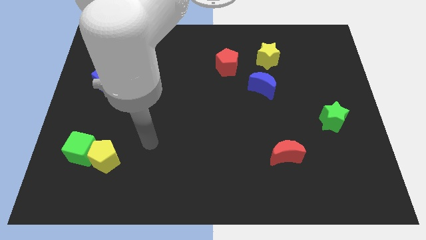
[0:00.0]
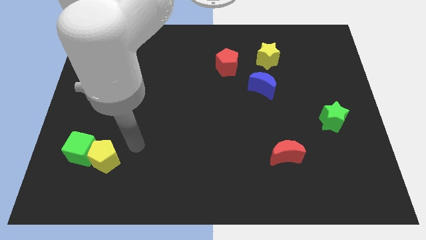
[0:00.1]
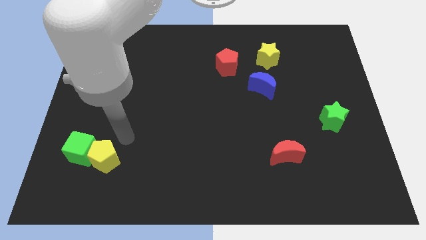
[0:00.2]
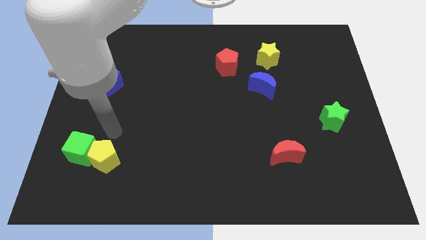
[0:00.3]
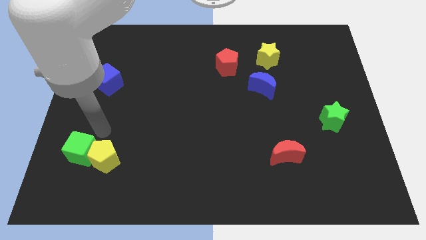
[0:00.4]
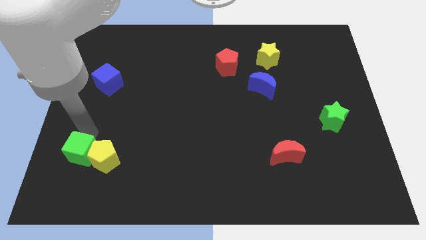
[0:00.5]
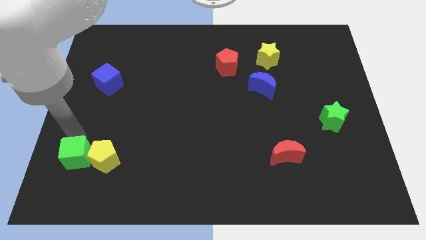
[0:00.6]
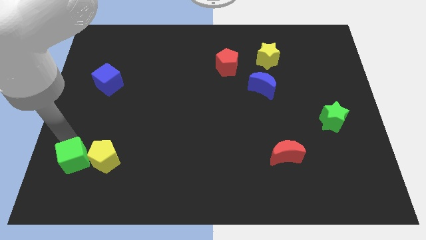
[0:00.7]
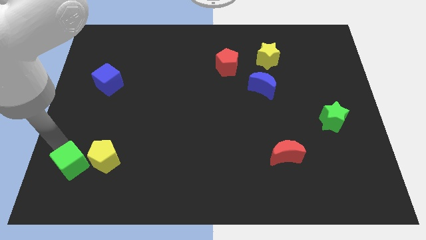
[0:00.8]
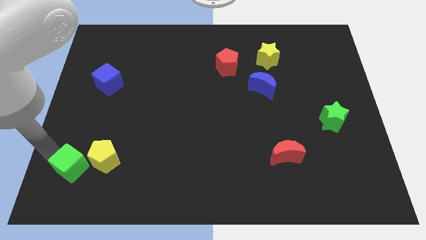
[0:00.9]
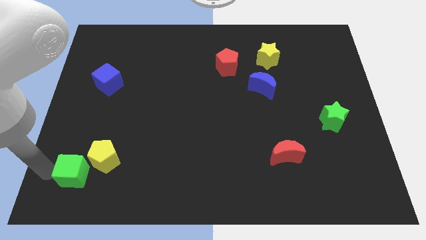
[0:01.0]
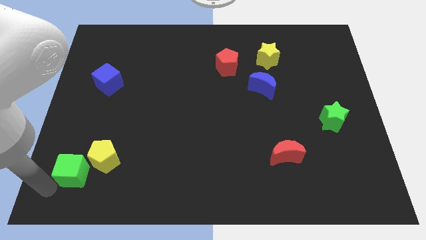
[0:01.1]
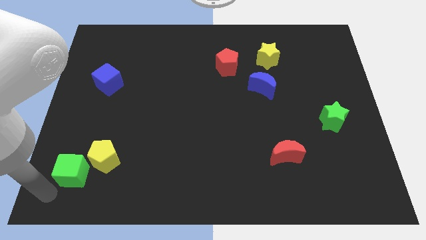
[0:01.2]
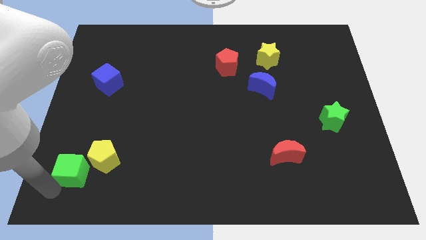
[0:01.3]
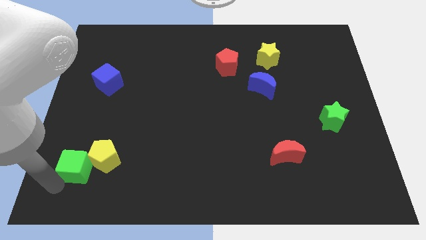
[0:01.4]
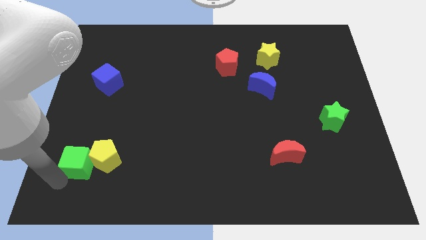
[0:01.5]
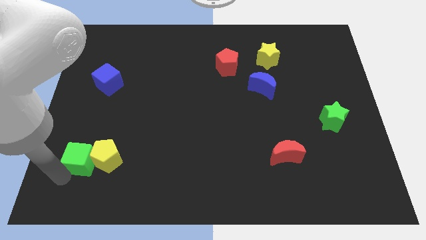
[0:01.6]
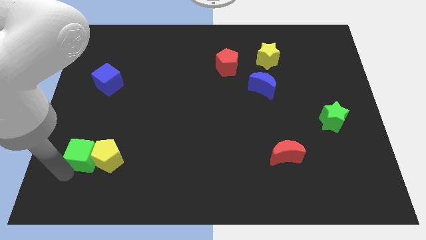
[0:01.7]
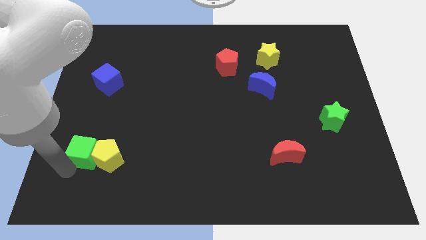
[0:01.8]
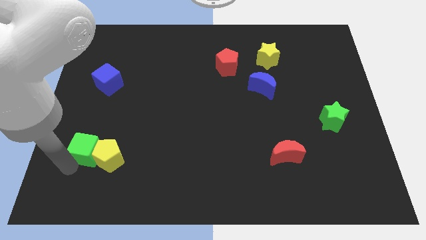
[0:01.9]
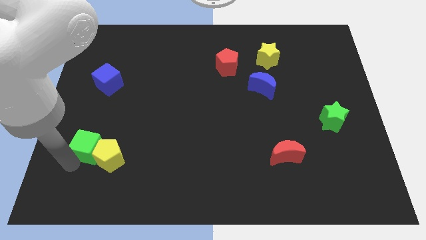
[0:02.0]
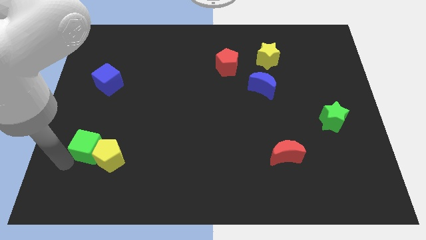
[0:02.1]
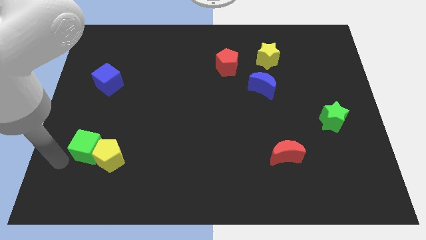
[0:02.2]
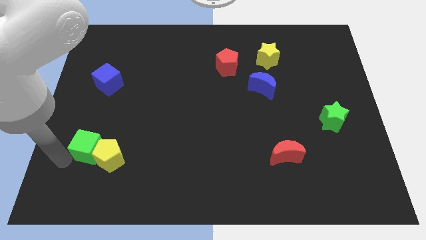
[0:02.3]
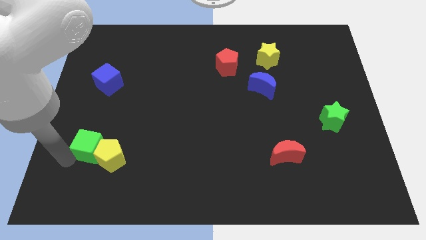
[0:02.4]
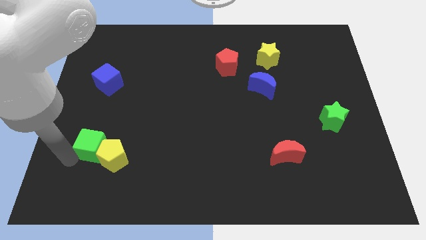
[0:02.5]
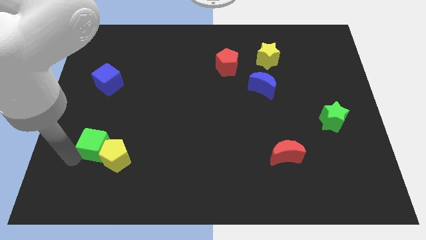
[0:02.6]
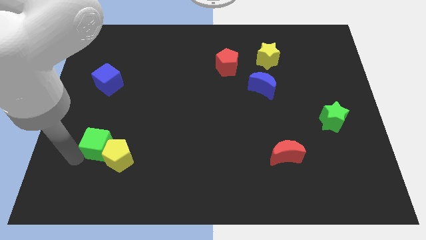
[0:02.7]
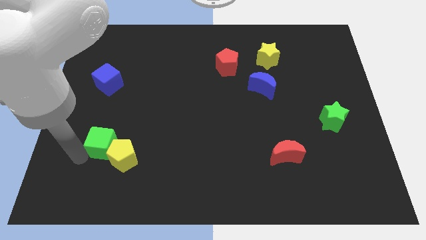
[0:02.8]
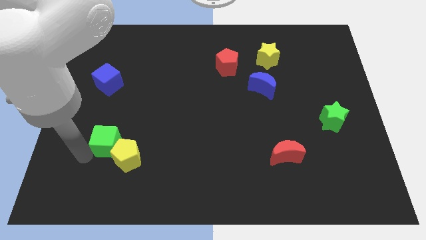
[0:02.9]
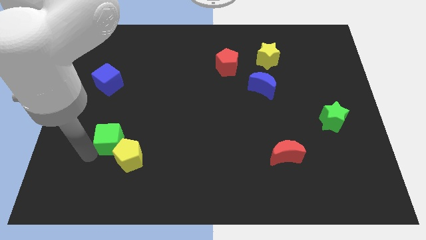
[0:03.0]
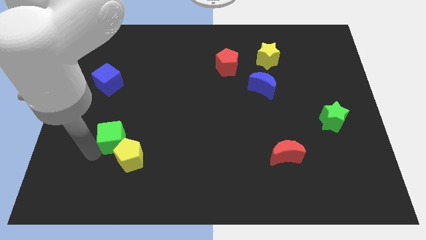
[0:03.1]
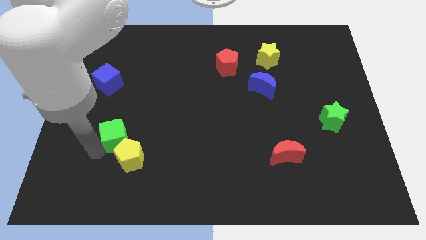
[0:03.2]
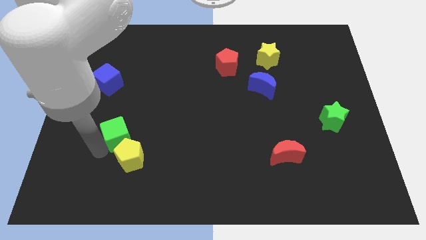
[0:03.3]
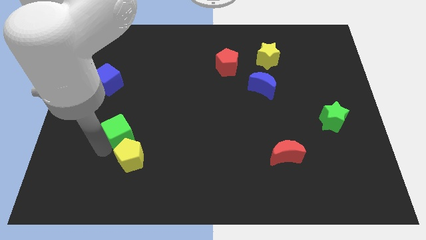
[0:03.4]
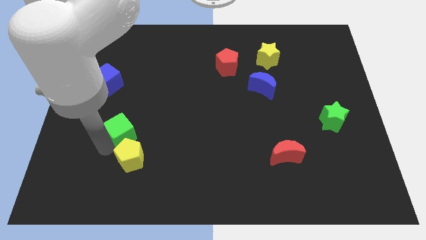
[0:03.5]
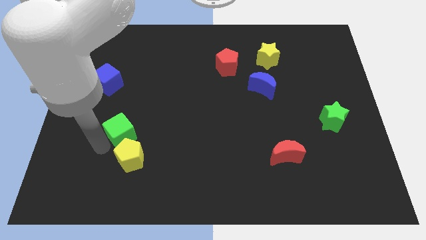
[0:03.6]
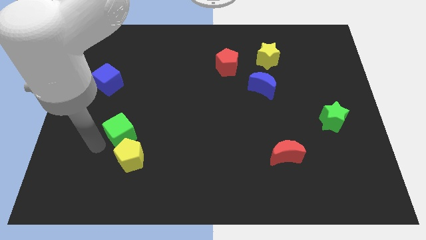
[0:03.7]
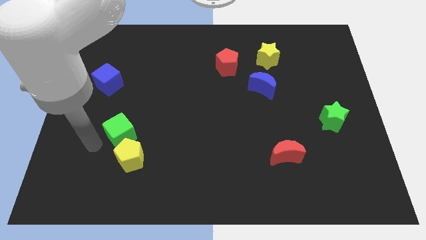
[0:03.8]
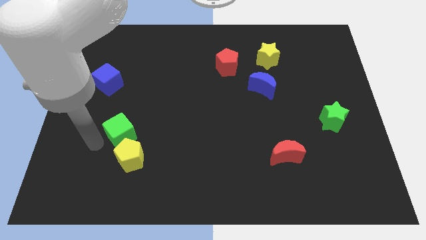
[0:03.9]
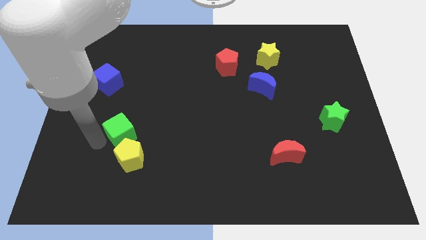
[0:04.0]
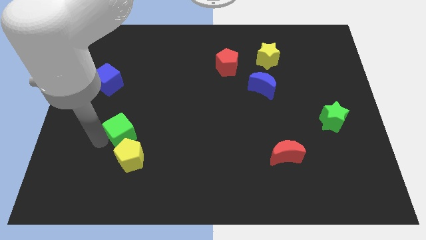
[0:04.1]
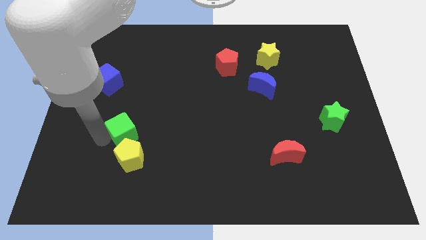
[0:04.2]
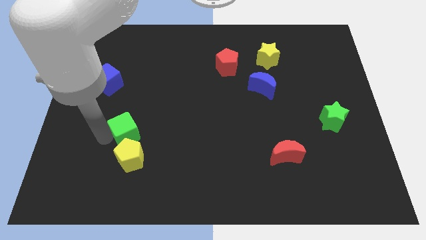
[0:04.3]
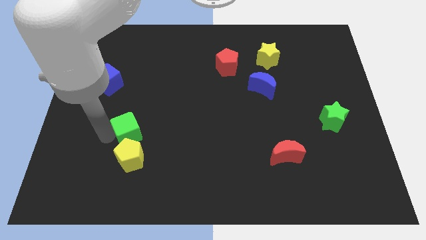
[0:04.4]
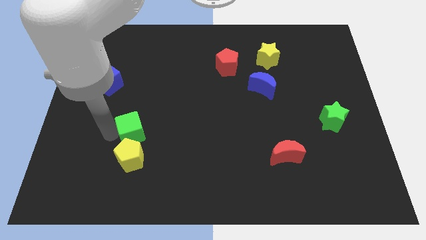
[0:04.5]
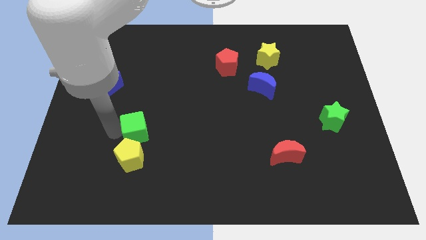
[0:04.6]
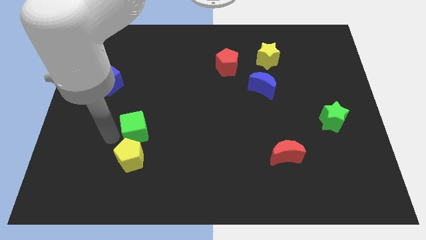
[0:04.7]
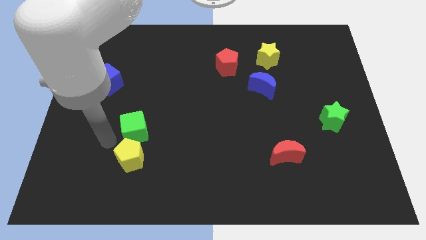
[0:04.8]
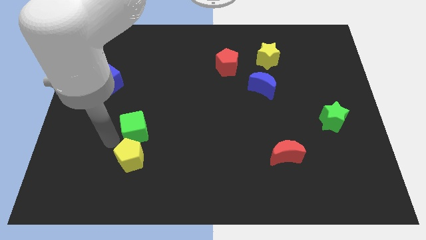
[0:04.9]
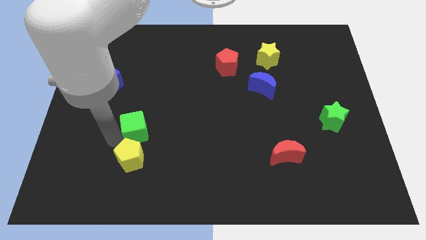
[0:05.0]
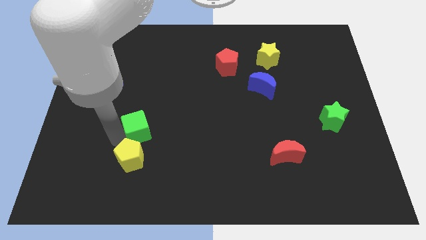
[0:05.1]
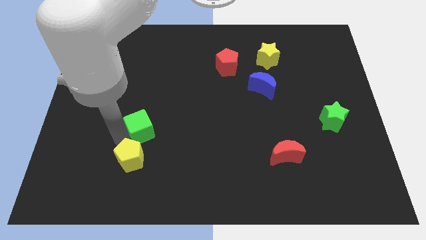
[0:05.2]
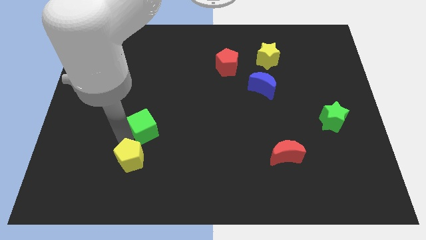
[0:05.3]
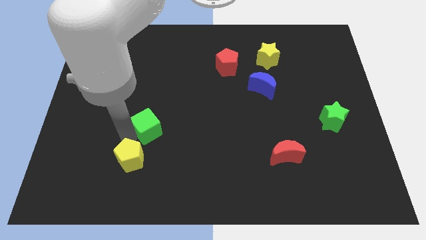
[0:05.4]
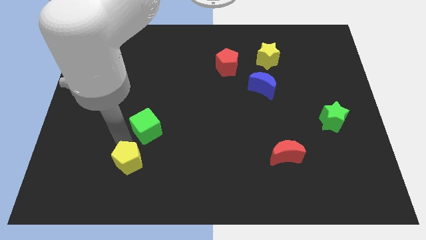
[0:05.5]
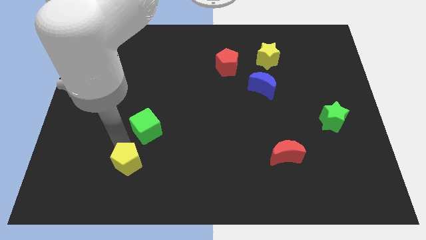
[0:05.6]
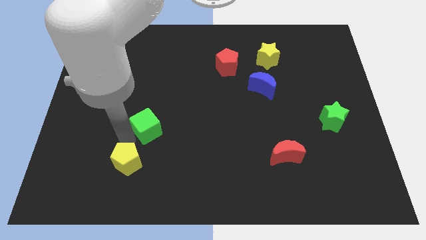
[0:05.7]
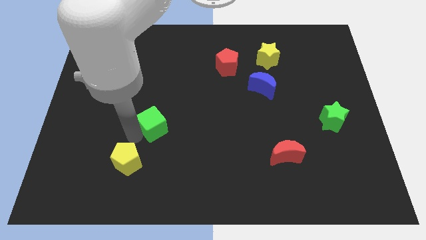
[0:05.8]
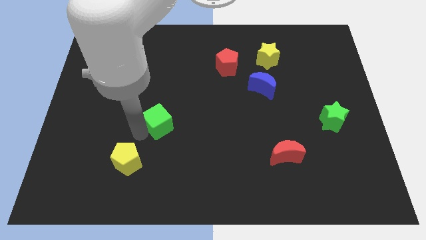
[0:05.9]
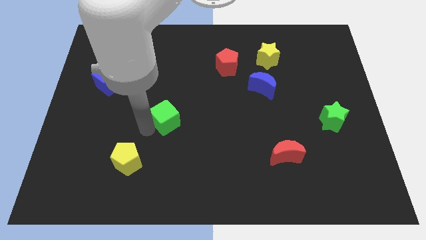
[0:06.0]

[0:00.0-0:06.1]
move the green cube to the center

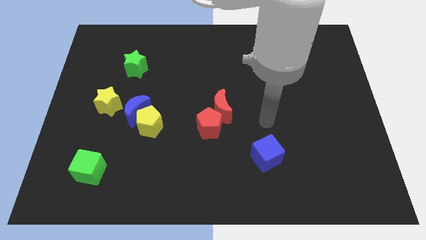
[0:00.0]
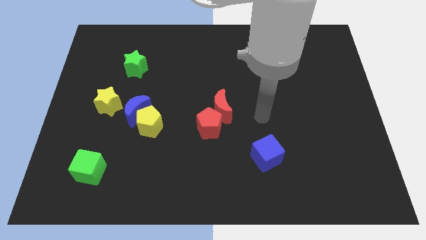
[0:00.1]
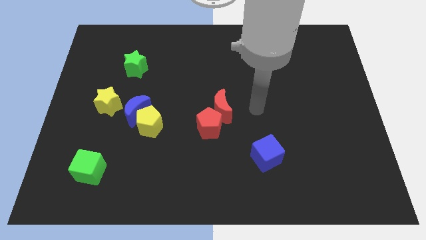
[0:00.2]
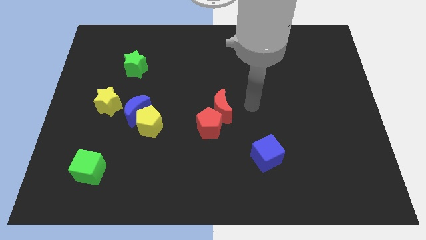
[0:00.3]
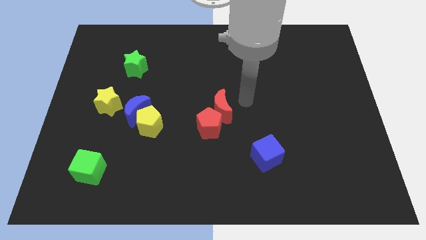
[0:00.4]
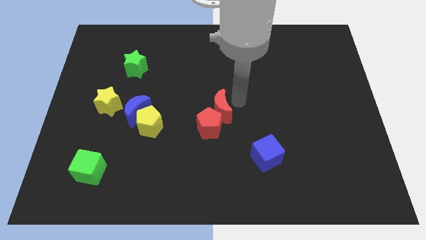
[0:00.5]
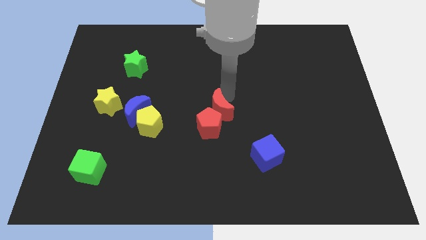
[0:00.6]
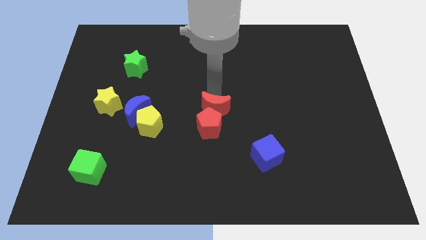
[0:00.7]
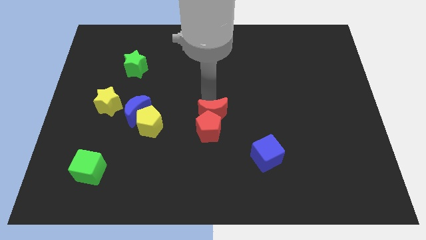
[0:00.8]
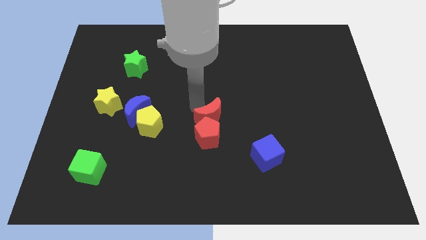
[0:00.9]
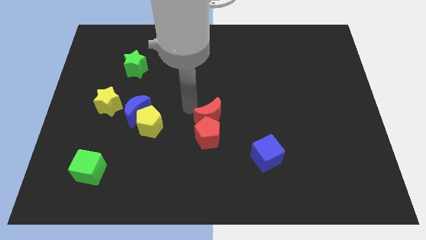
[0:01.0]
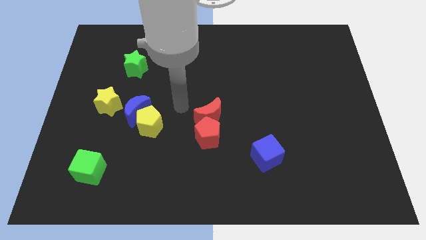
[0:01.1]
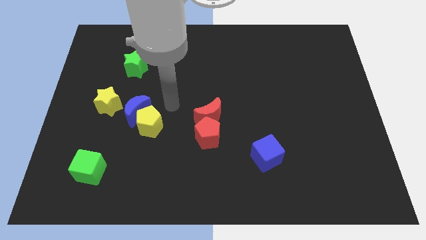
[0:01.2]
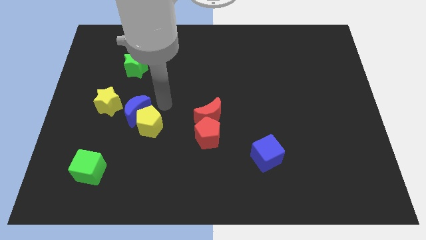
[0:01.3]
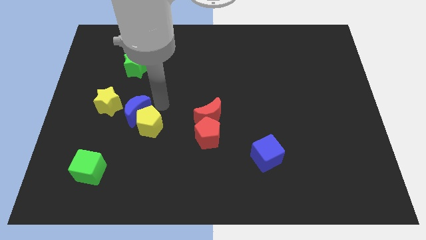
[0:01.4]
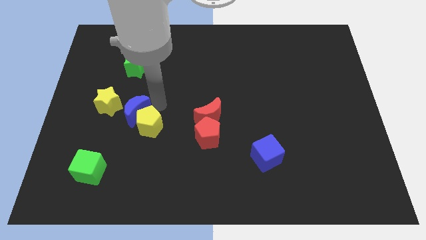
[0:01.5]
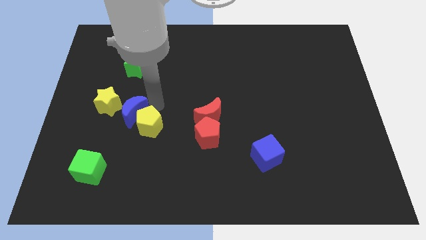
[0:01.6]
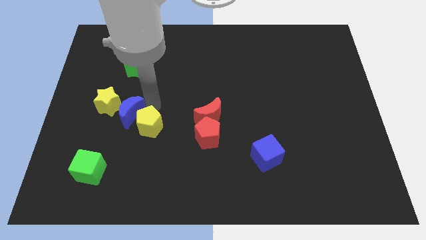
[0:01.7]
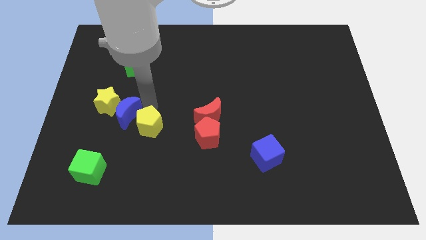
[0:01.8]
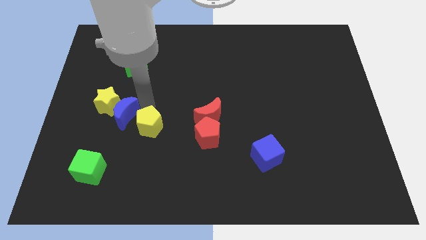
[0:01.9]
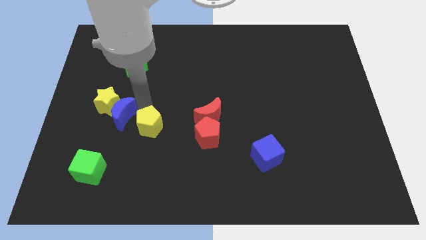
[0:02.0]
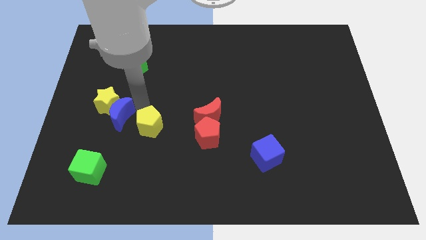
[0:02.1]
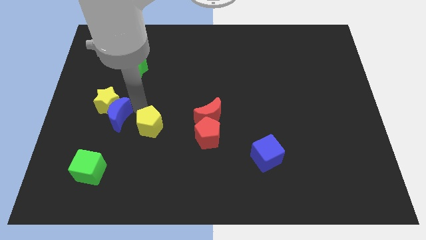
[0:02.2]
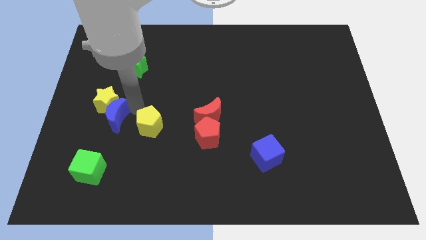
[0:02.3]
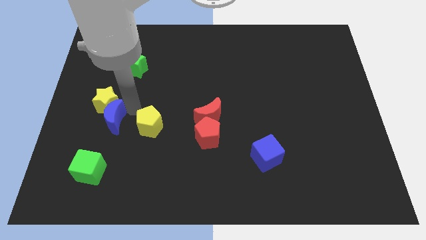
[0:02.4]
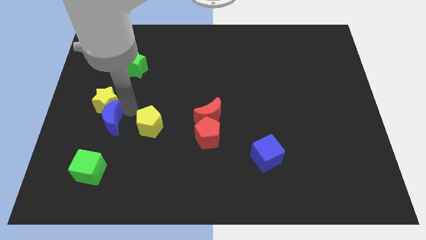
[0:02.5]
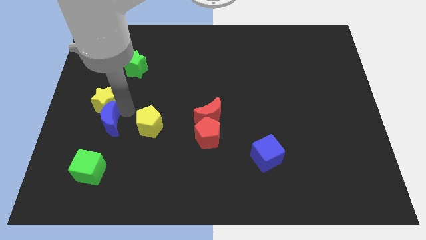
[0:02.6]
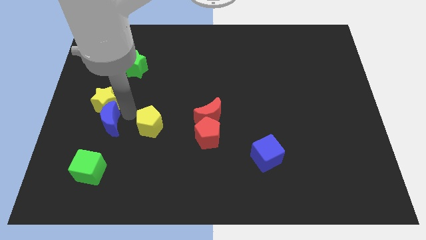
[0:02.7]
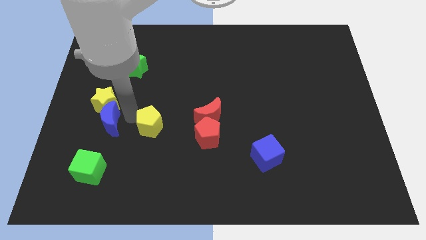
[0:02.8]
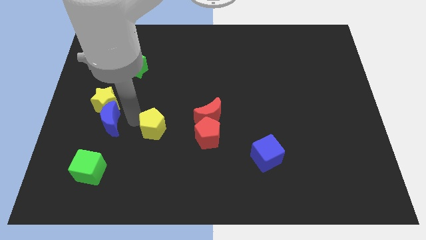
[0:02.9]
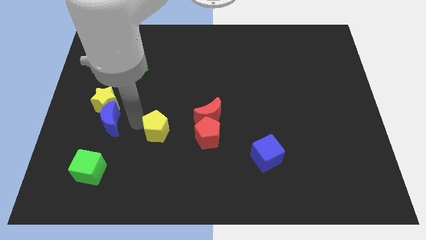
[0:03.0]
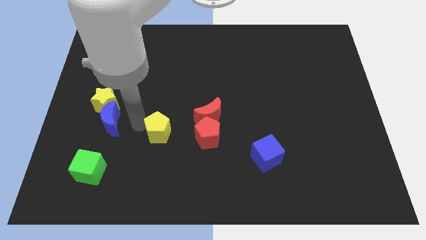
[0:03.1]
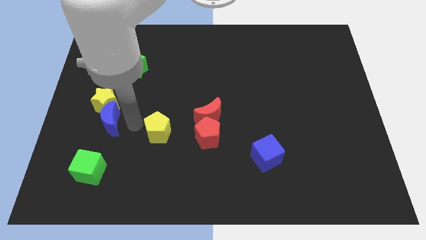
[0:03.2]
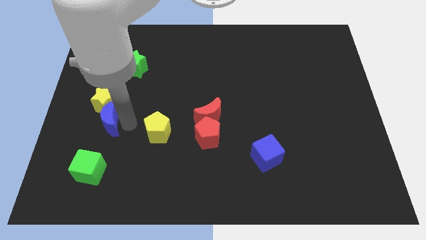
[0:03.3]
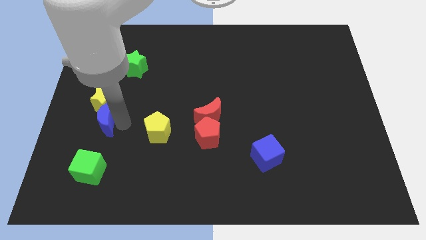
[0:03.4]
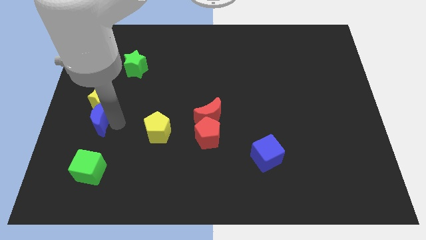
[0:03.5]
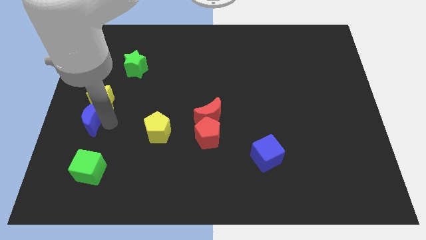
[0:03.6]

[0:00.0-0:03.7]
push the blue moon to the left side of the board
